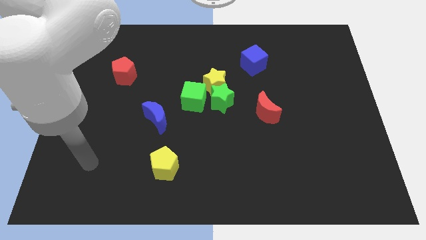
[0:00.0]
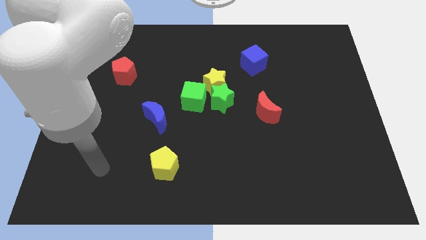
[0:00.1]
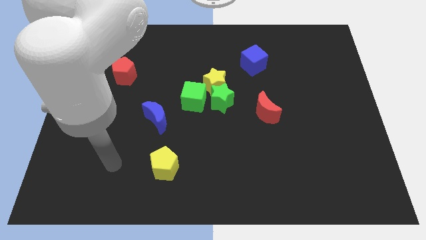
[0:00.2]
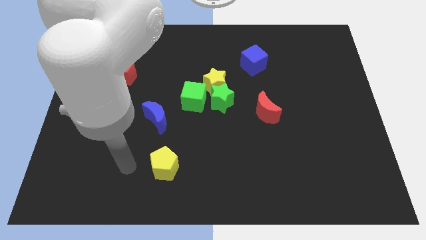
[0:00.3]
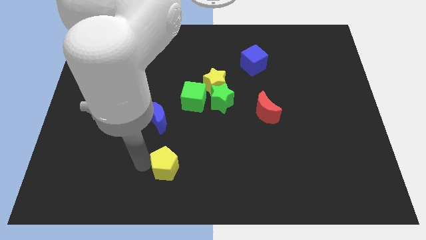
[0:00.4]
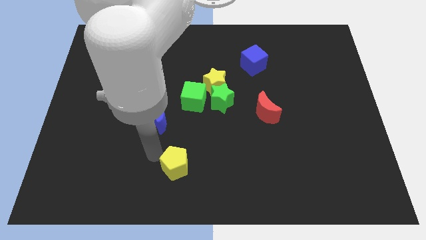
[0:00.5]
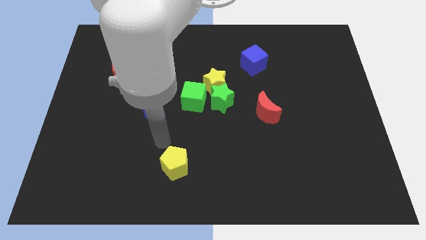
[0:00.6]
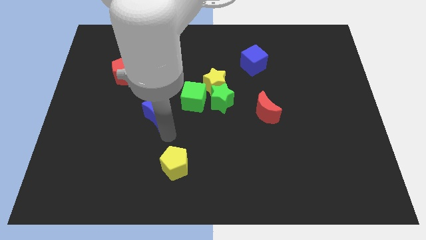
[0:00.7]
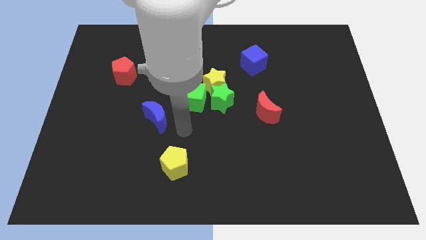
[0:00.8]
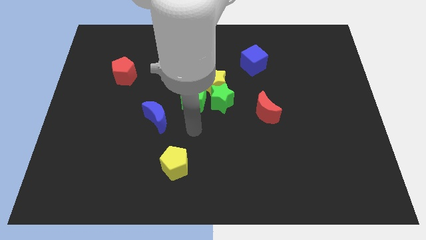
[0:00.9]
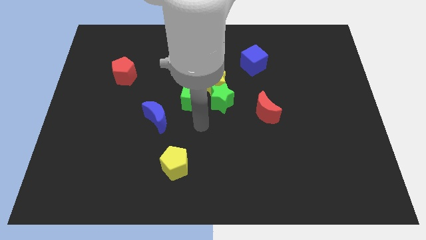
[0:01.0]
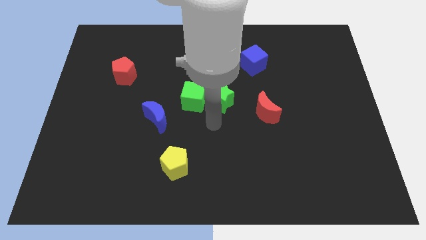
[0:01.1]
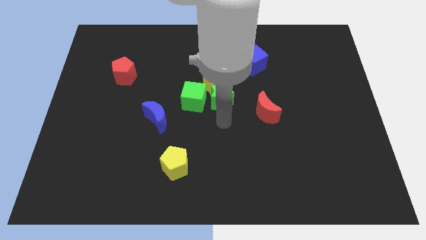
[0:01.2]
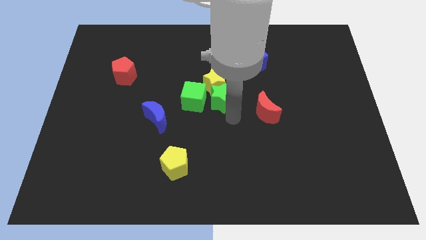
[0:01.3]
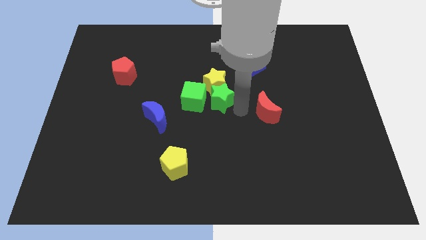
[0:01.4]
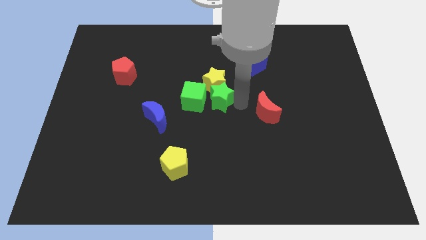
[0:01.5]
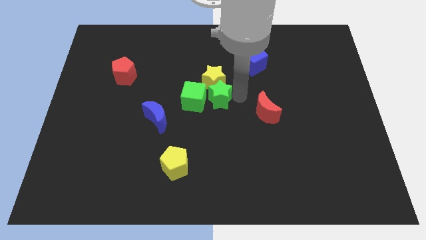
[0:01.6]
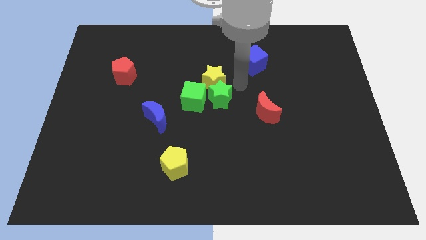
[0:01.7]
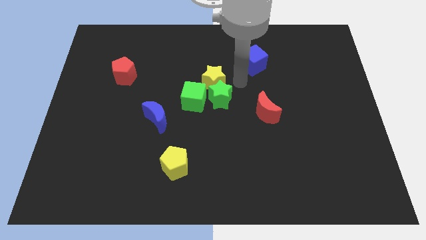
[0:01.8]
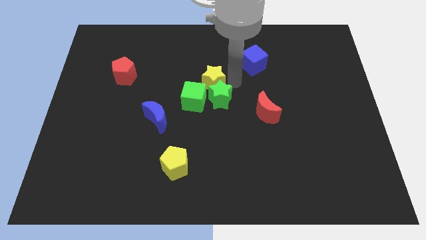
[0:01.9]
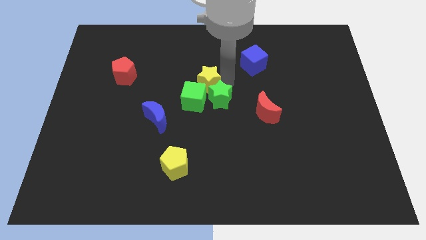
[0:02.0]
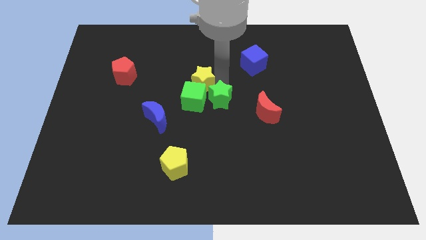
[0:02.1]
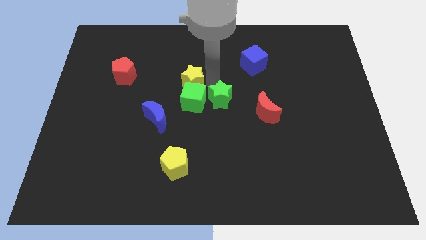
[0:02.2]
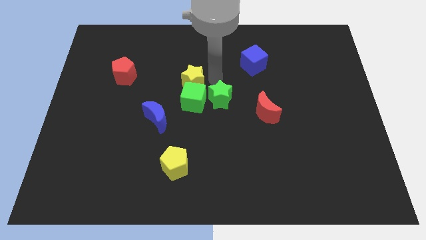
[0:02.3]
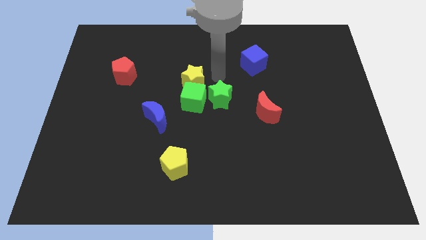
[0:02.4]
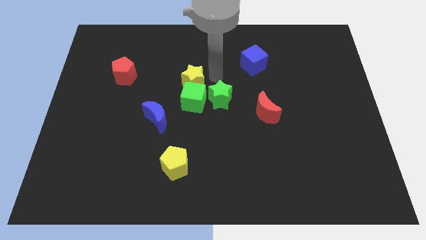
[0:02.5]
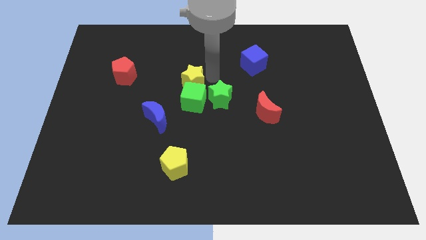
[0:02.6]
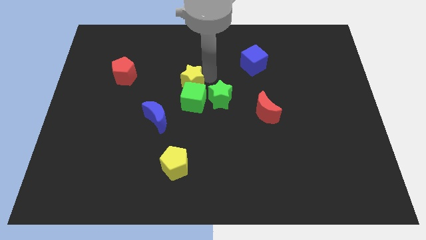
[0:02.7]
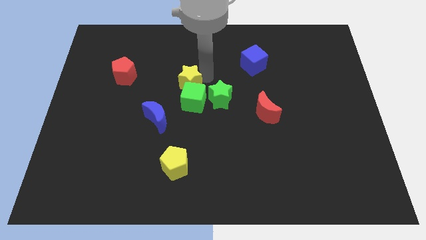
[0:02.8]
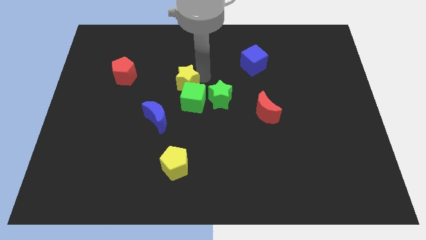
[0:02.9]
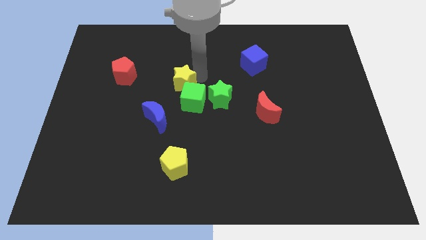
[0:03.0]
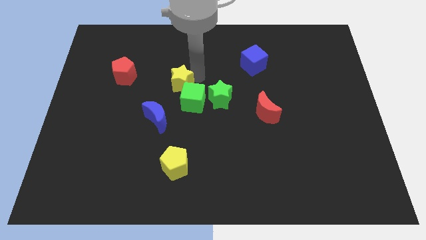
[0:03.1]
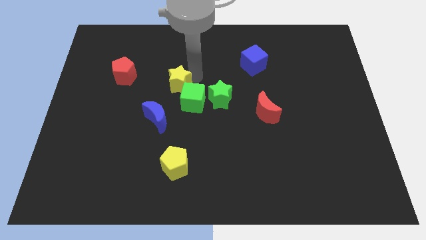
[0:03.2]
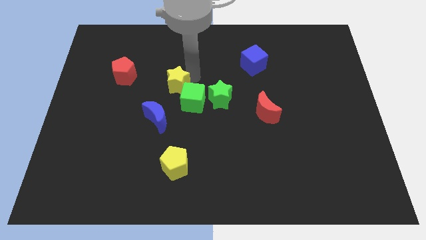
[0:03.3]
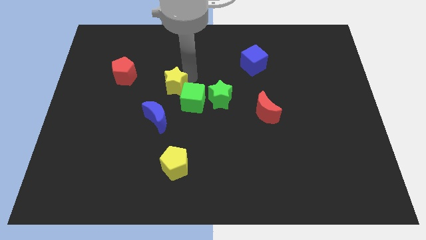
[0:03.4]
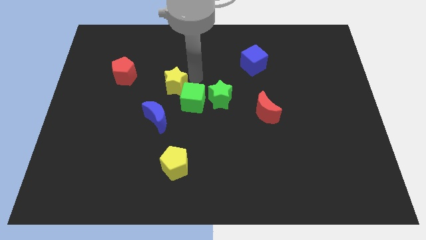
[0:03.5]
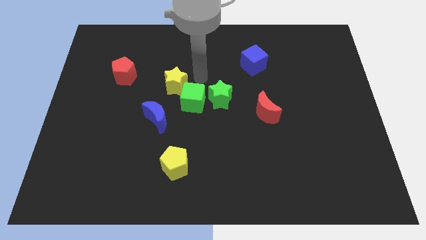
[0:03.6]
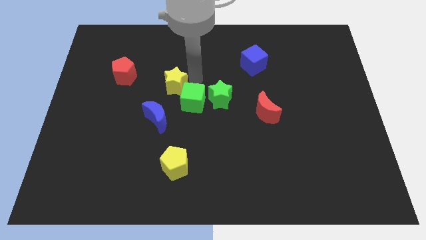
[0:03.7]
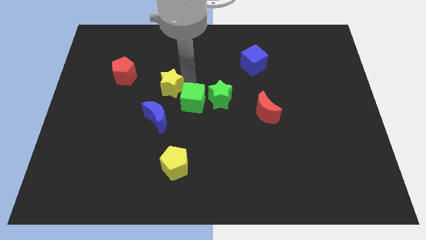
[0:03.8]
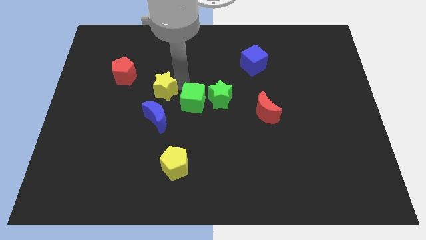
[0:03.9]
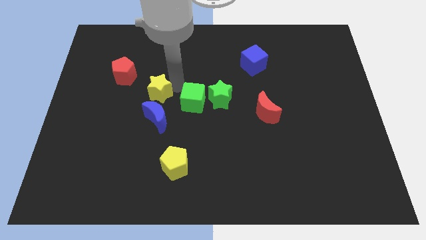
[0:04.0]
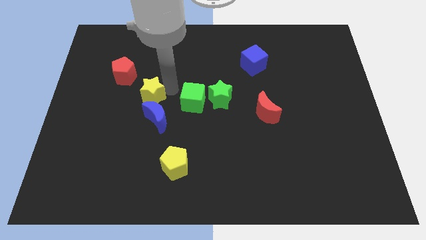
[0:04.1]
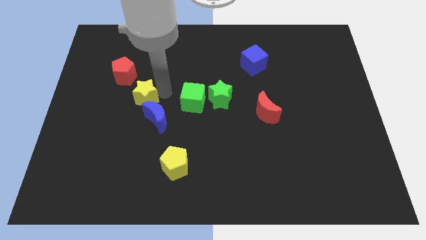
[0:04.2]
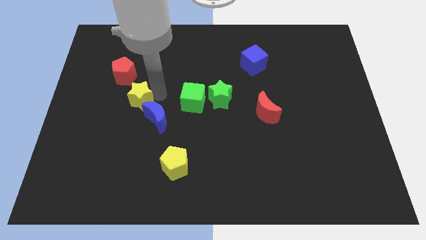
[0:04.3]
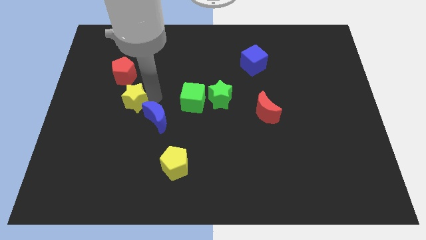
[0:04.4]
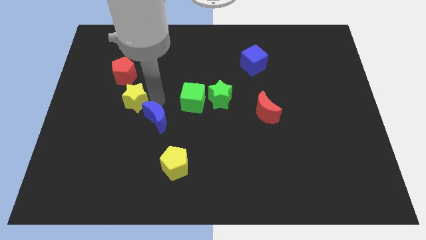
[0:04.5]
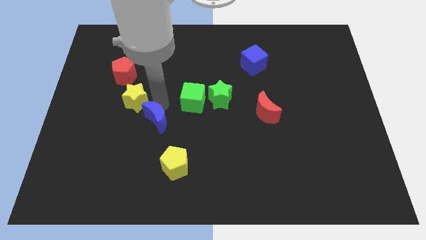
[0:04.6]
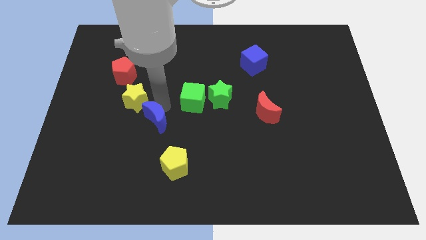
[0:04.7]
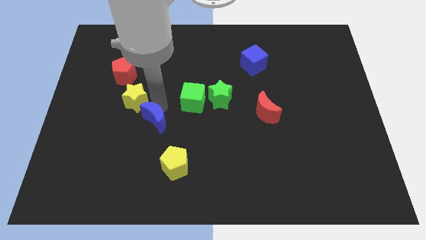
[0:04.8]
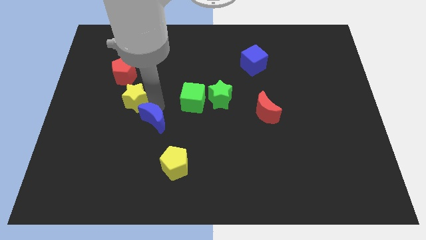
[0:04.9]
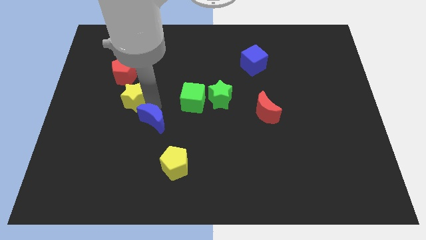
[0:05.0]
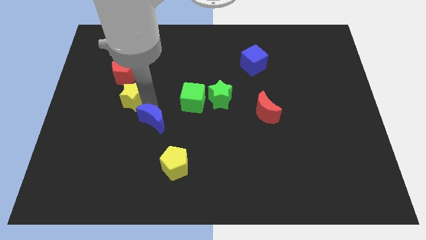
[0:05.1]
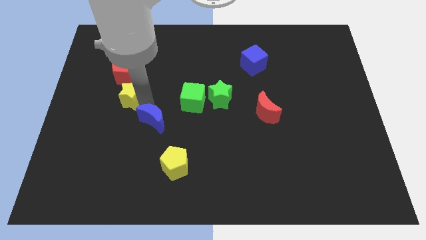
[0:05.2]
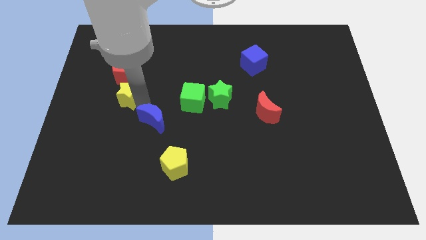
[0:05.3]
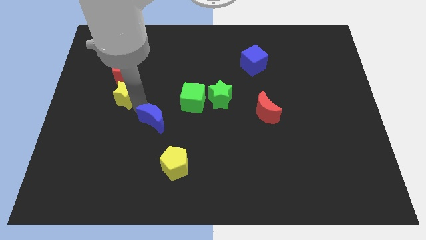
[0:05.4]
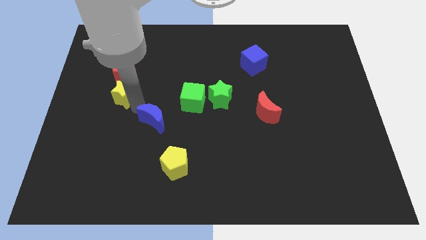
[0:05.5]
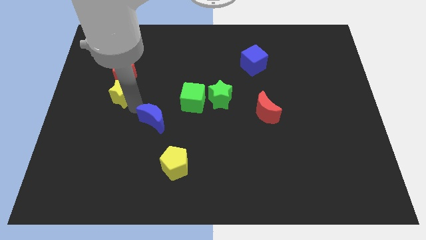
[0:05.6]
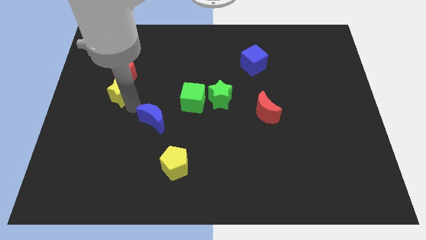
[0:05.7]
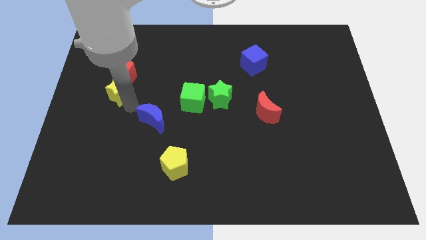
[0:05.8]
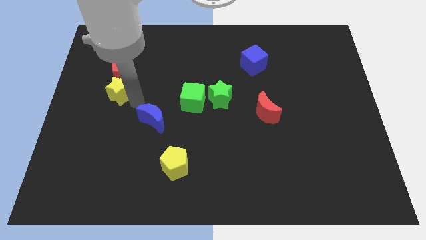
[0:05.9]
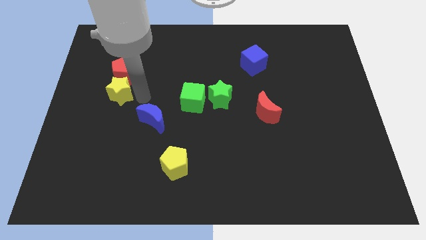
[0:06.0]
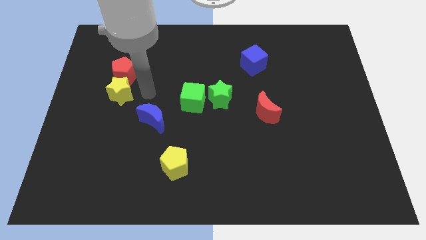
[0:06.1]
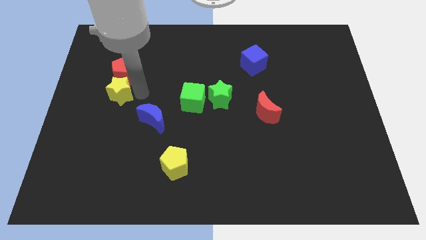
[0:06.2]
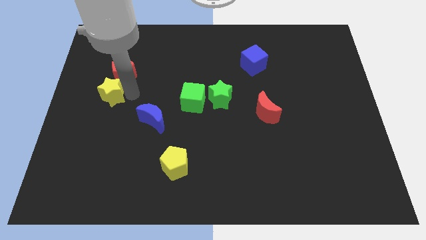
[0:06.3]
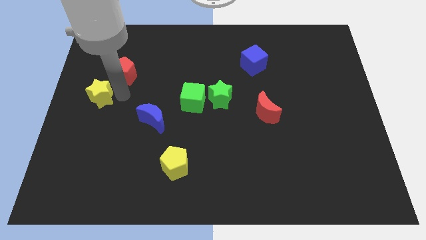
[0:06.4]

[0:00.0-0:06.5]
slide the yellow star to the center left
